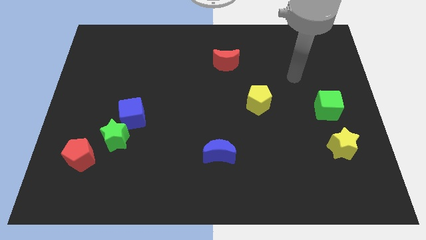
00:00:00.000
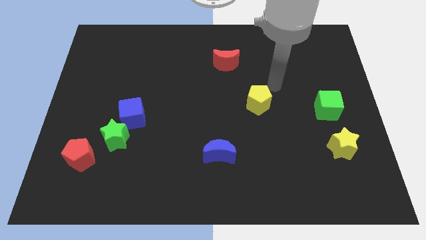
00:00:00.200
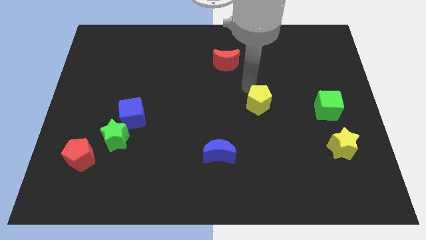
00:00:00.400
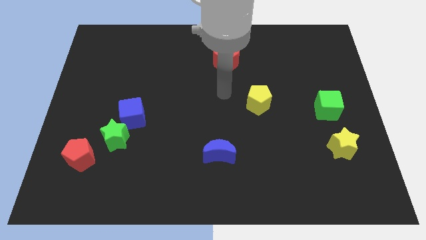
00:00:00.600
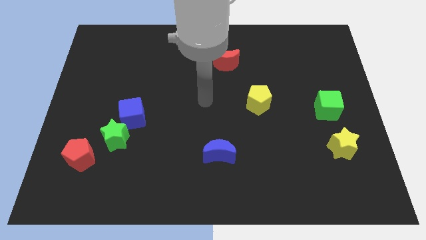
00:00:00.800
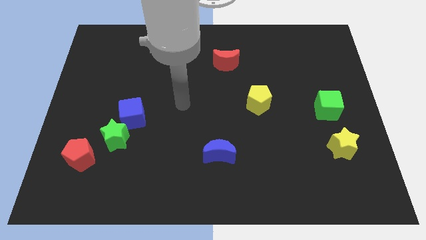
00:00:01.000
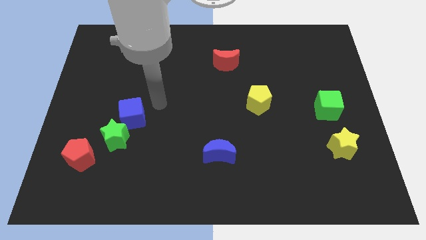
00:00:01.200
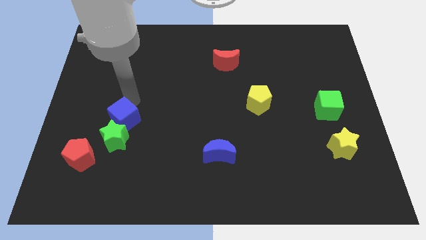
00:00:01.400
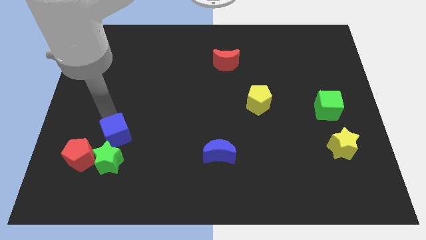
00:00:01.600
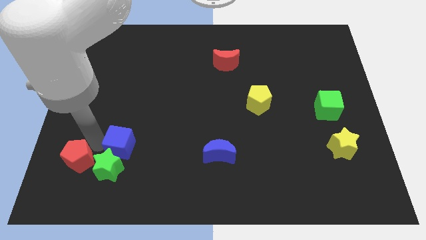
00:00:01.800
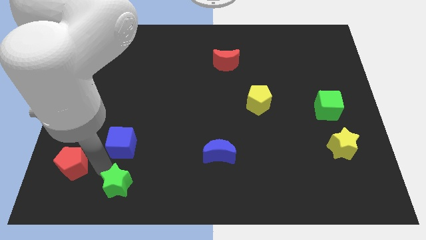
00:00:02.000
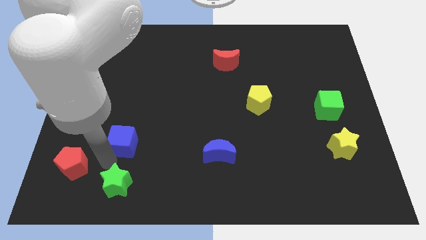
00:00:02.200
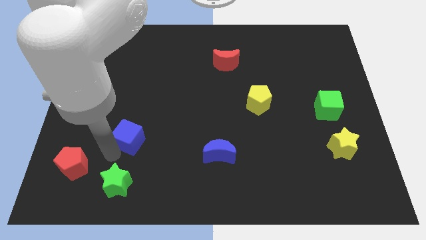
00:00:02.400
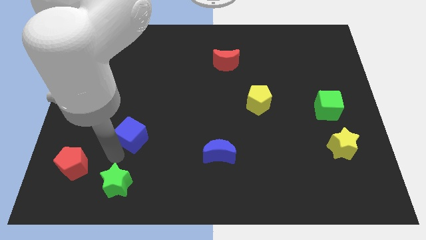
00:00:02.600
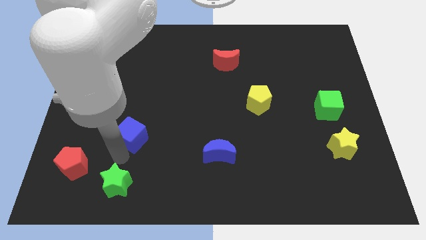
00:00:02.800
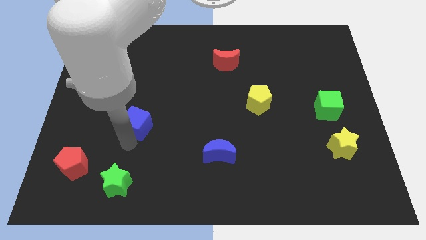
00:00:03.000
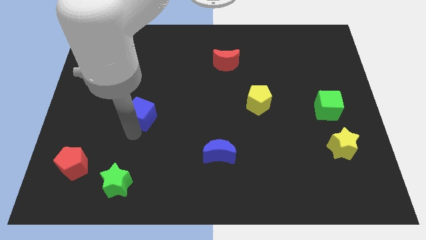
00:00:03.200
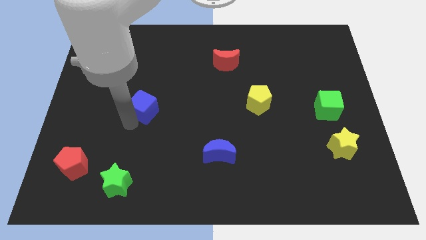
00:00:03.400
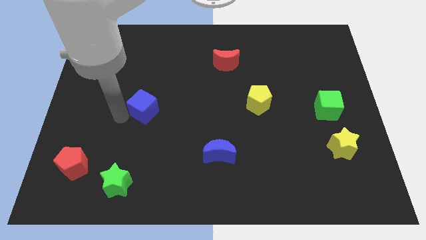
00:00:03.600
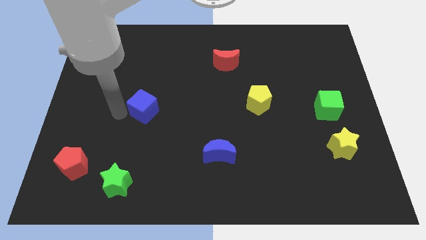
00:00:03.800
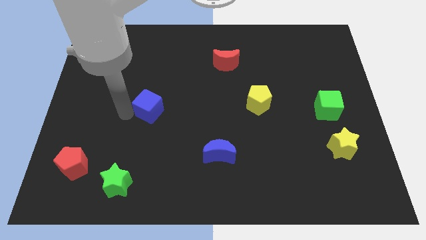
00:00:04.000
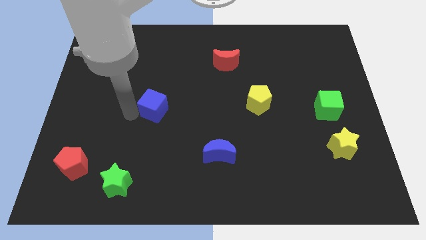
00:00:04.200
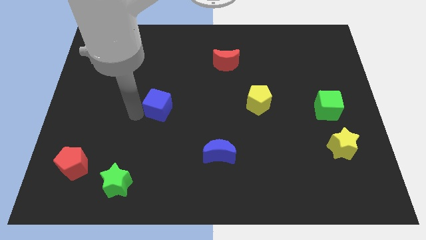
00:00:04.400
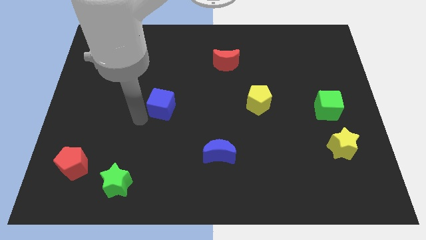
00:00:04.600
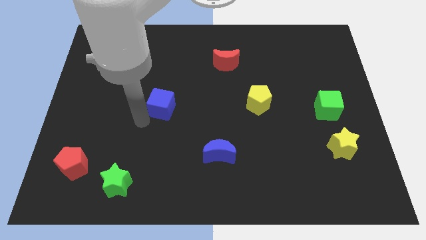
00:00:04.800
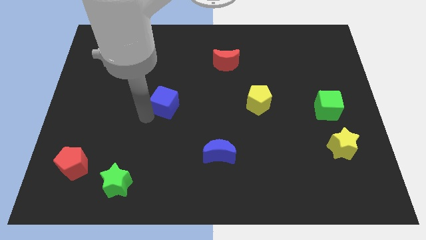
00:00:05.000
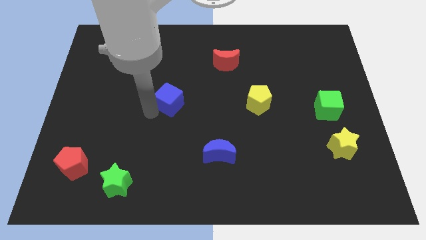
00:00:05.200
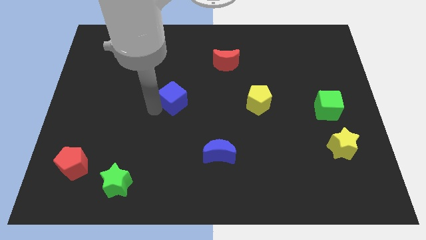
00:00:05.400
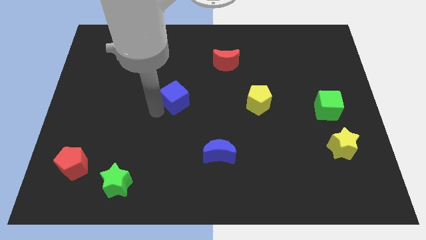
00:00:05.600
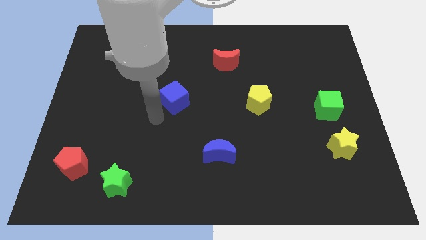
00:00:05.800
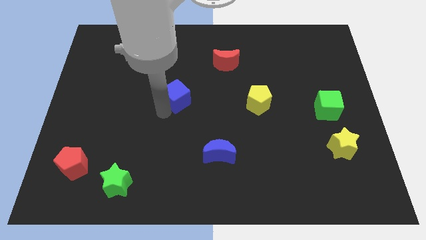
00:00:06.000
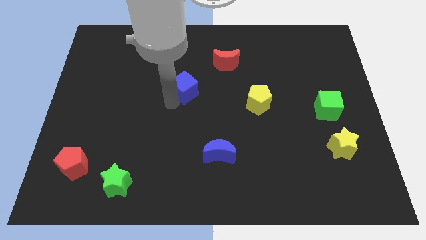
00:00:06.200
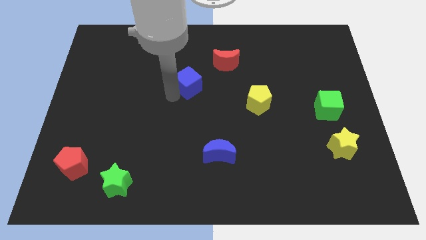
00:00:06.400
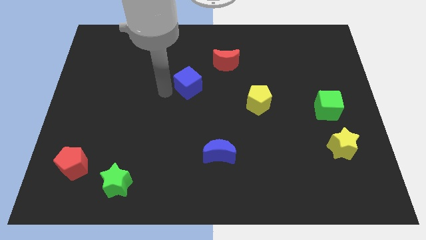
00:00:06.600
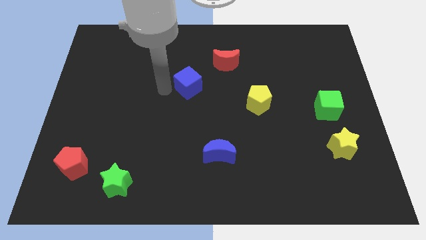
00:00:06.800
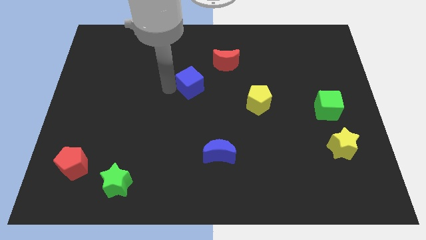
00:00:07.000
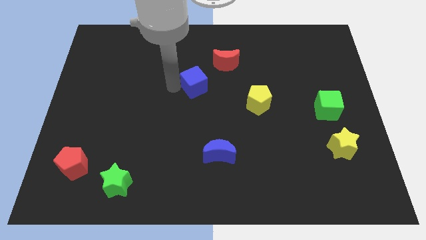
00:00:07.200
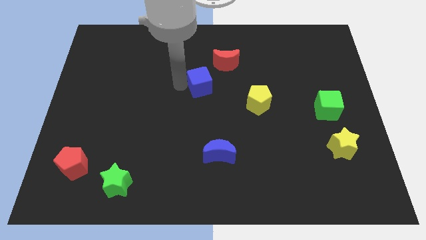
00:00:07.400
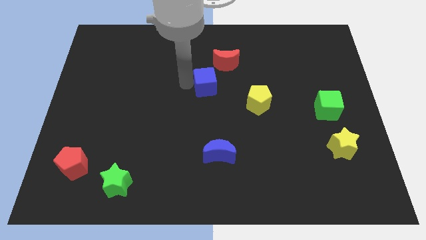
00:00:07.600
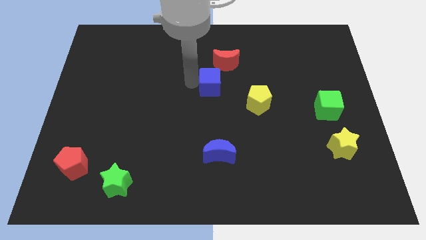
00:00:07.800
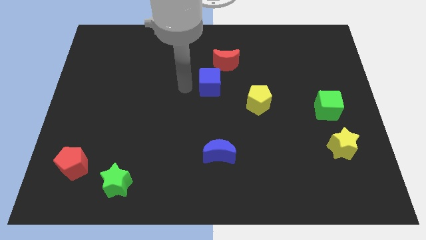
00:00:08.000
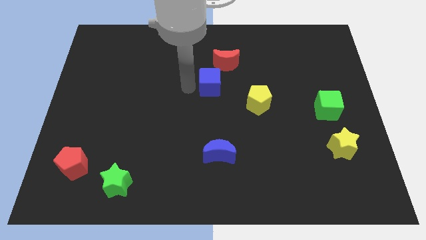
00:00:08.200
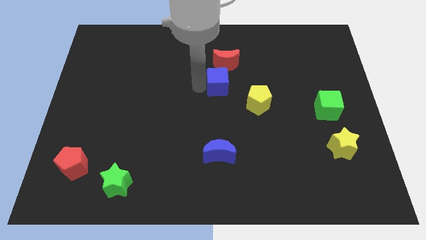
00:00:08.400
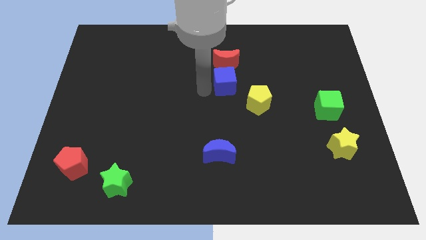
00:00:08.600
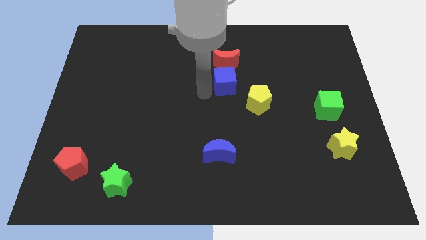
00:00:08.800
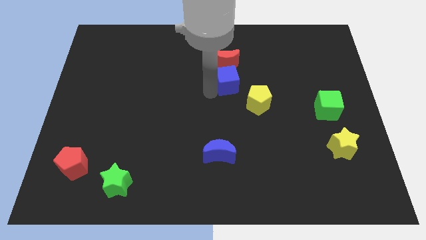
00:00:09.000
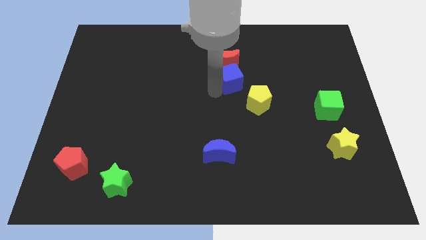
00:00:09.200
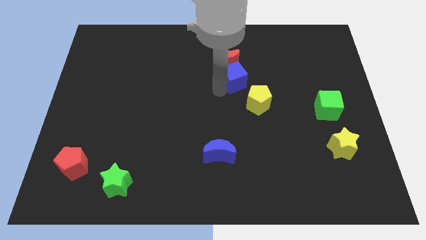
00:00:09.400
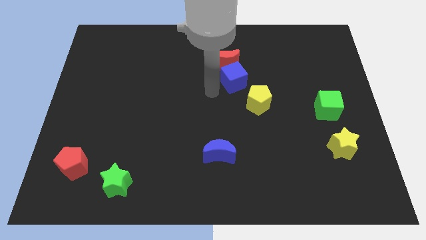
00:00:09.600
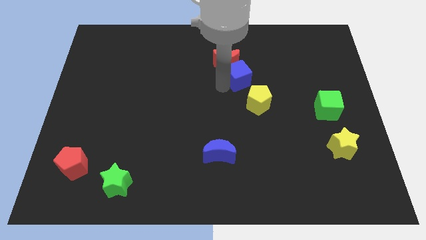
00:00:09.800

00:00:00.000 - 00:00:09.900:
slide the blue cube above the yellow pentagon

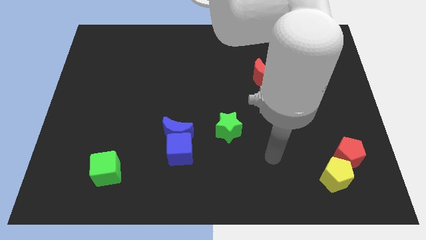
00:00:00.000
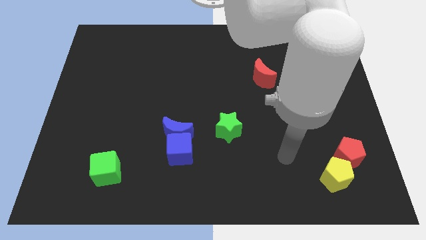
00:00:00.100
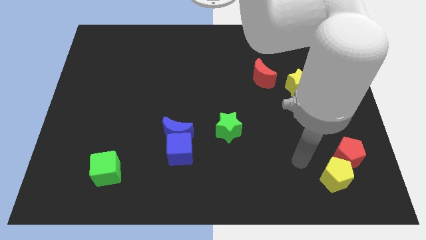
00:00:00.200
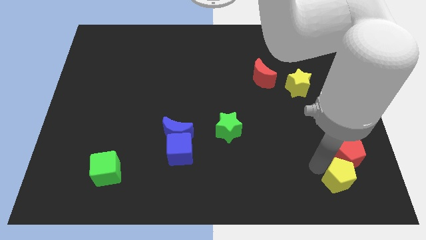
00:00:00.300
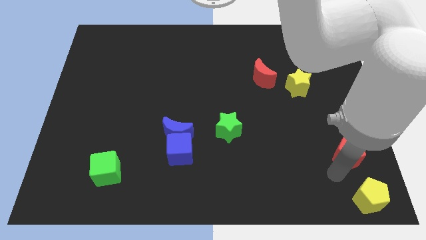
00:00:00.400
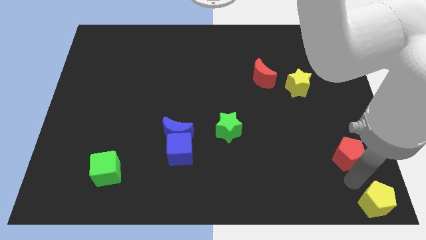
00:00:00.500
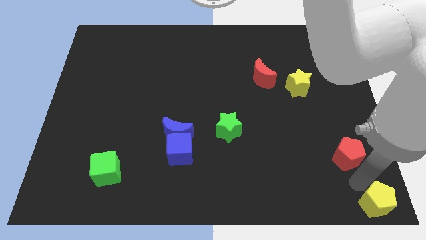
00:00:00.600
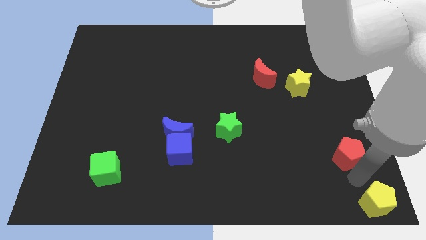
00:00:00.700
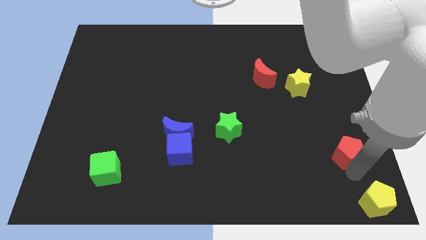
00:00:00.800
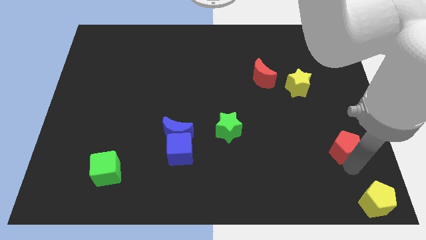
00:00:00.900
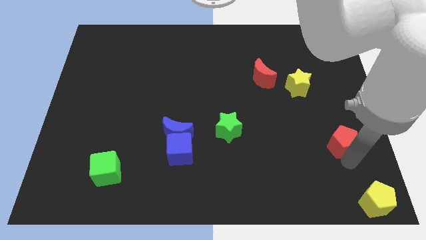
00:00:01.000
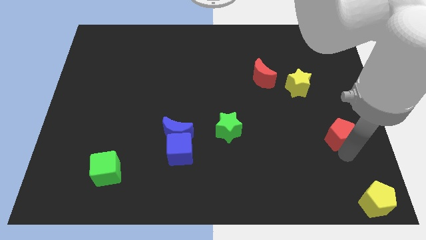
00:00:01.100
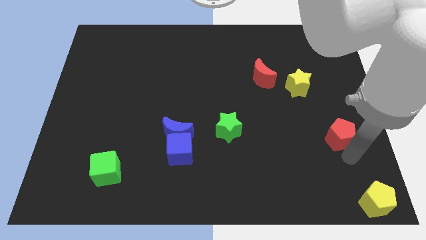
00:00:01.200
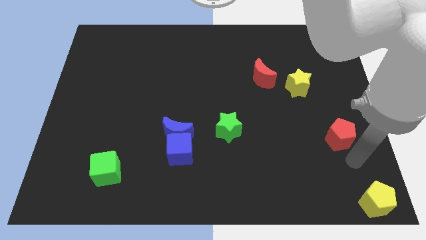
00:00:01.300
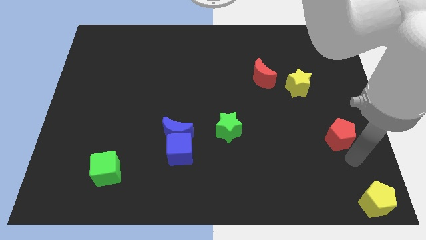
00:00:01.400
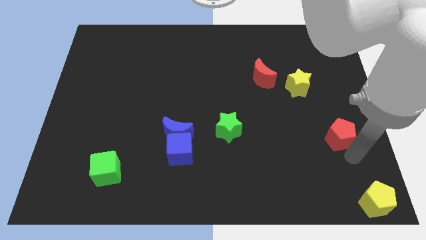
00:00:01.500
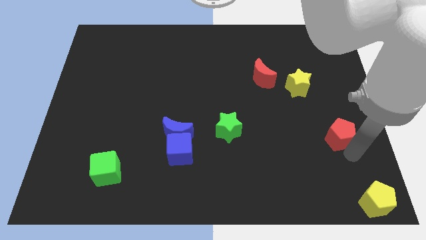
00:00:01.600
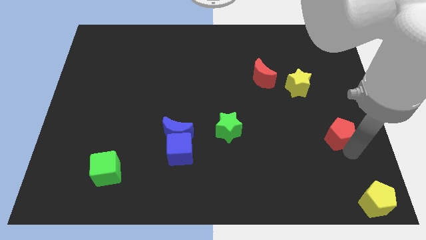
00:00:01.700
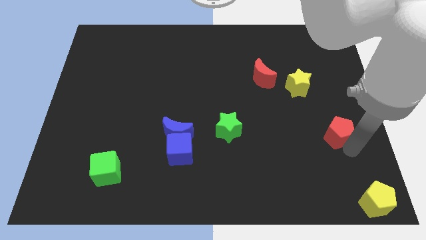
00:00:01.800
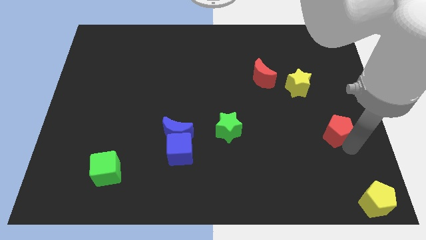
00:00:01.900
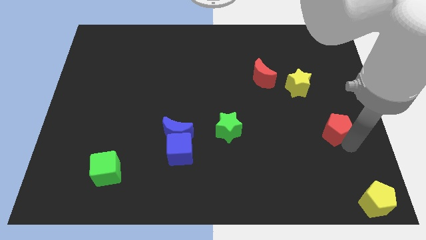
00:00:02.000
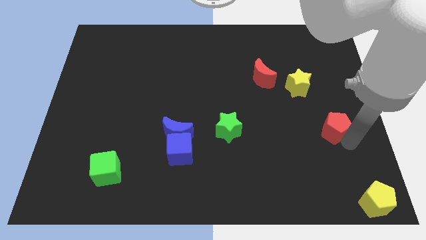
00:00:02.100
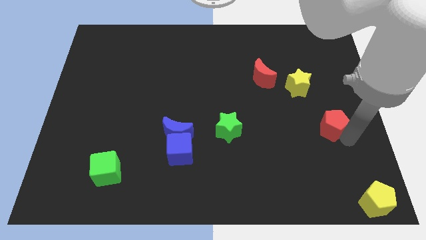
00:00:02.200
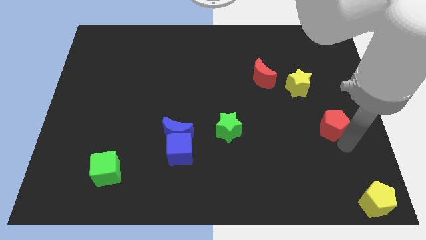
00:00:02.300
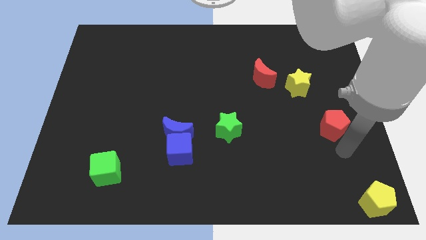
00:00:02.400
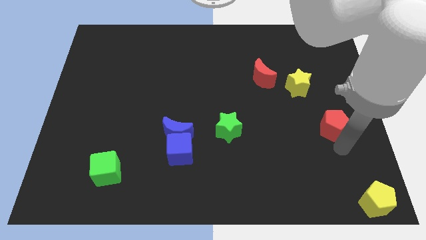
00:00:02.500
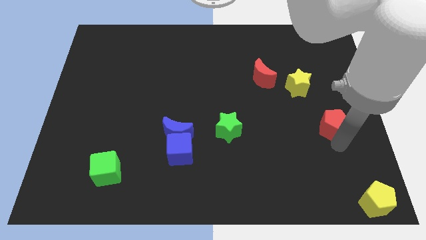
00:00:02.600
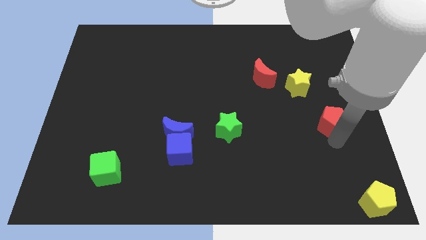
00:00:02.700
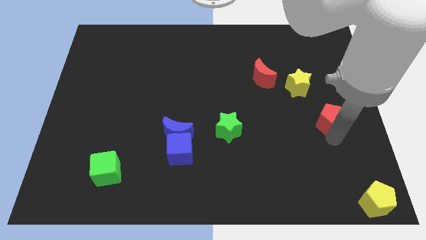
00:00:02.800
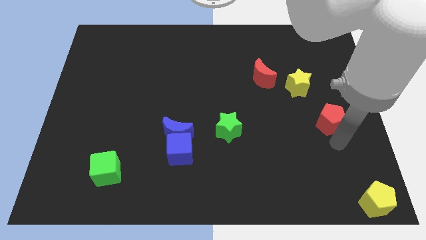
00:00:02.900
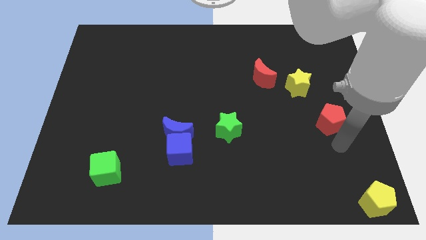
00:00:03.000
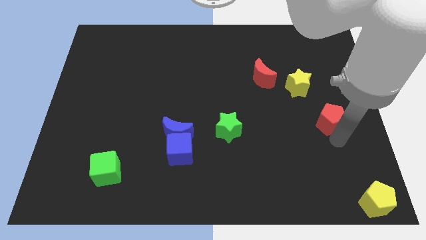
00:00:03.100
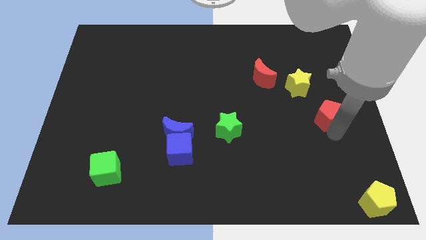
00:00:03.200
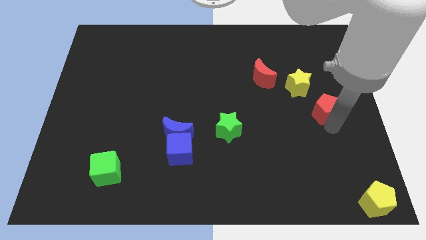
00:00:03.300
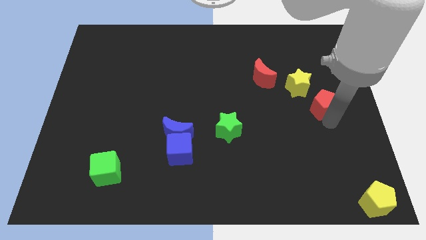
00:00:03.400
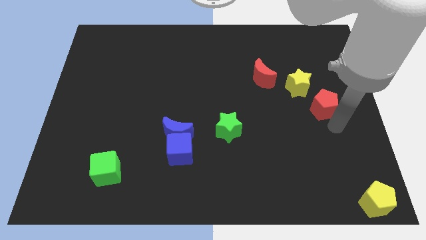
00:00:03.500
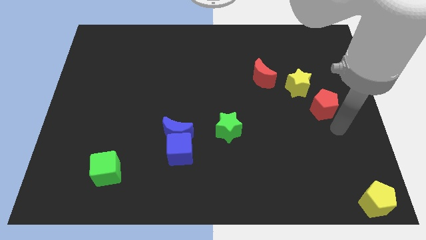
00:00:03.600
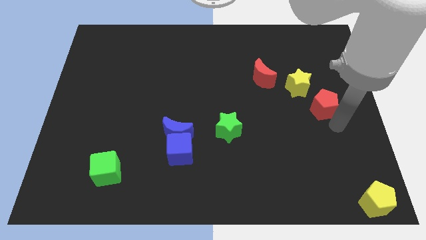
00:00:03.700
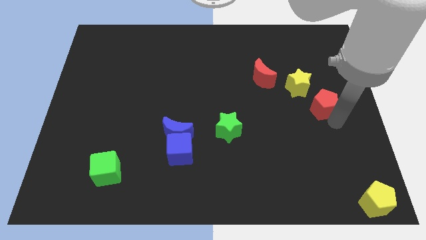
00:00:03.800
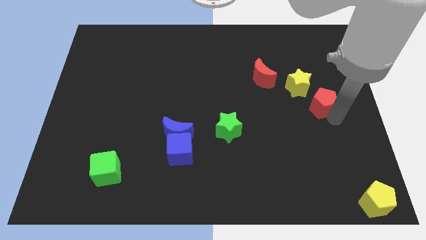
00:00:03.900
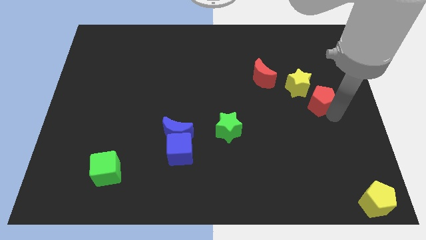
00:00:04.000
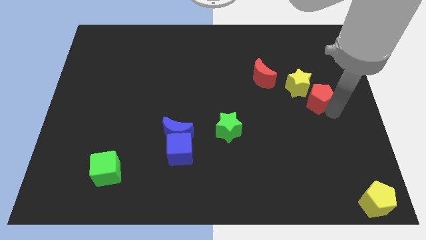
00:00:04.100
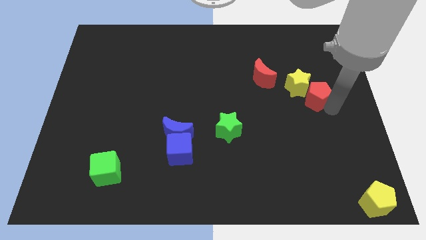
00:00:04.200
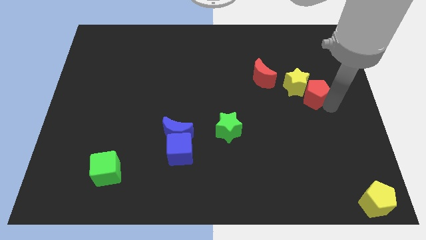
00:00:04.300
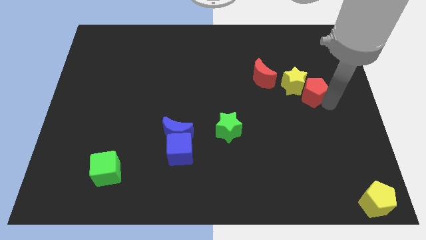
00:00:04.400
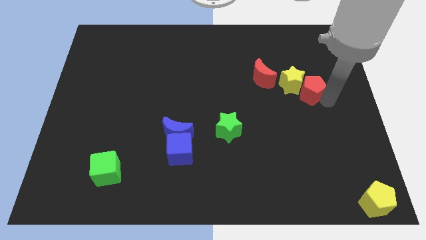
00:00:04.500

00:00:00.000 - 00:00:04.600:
put the red pentagon just right of the red moon
